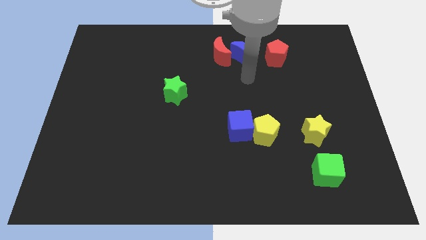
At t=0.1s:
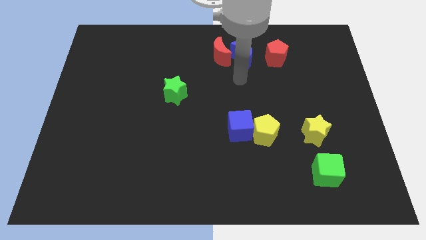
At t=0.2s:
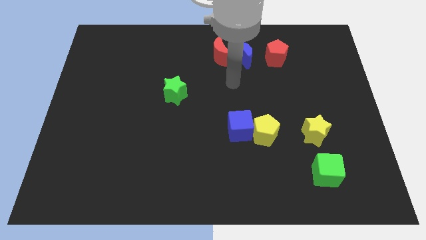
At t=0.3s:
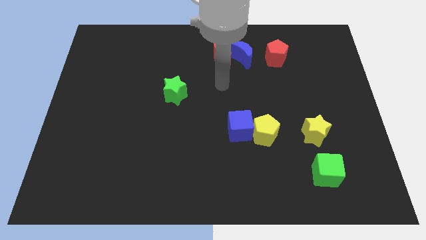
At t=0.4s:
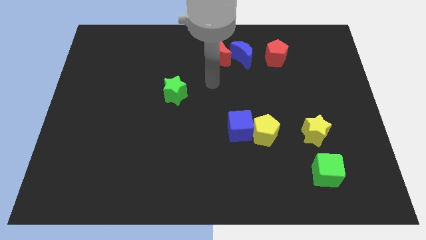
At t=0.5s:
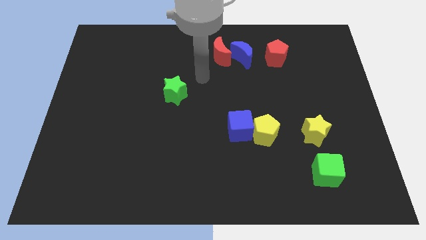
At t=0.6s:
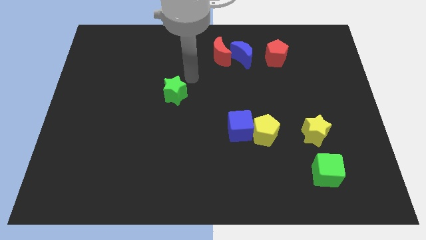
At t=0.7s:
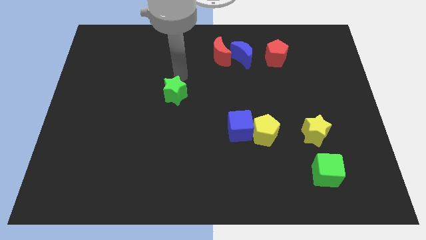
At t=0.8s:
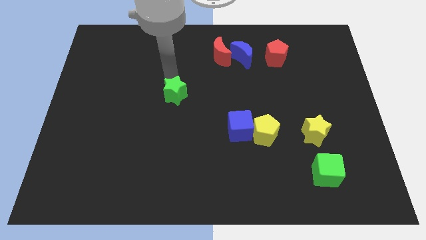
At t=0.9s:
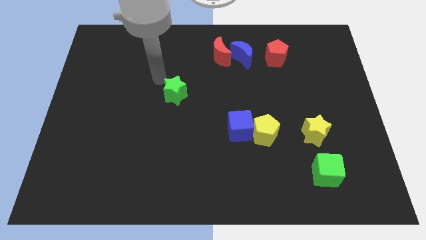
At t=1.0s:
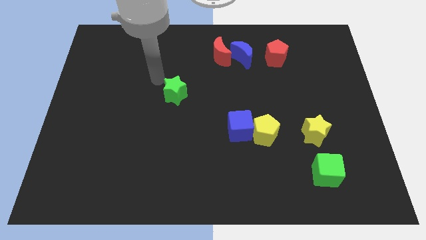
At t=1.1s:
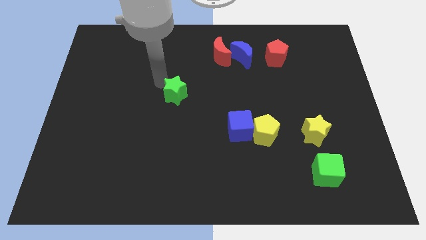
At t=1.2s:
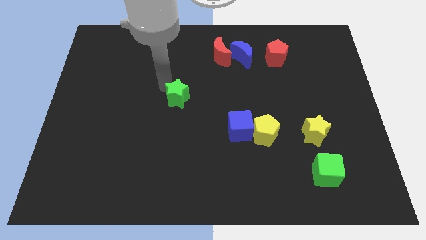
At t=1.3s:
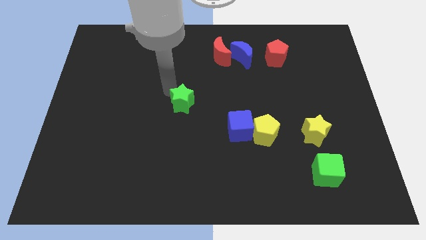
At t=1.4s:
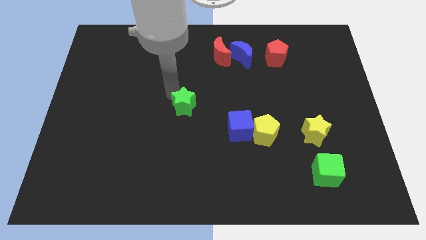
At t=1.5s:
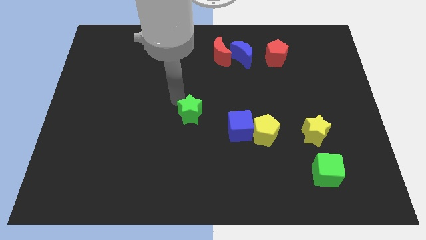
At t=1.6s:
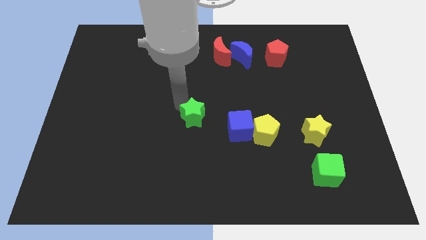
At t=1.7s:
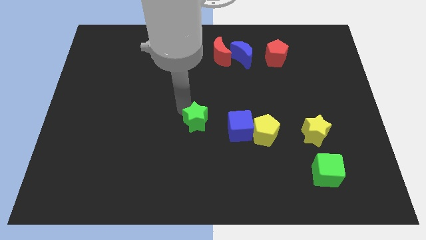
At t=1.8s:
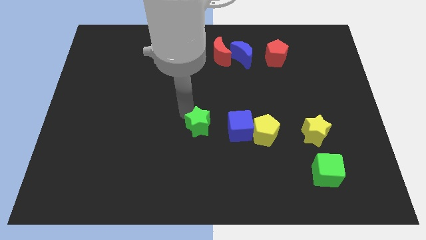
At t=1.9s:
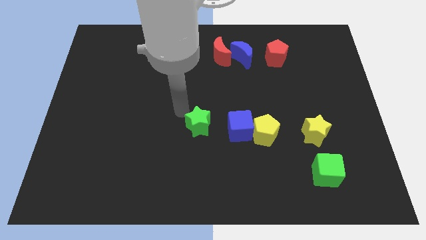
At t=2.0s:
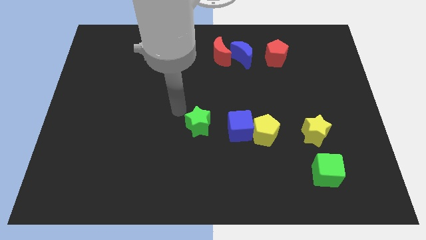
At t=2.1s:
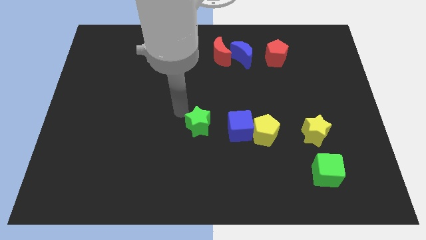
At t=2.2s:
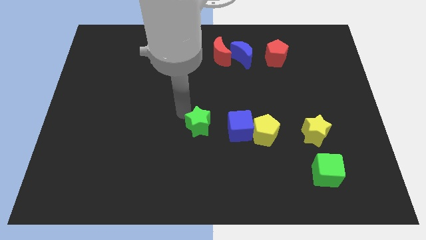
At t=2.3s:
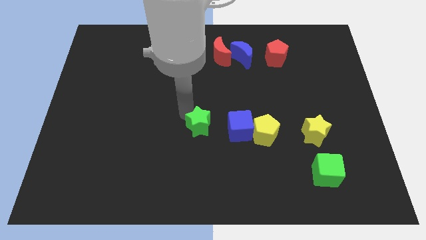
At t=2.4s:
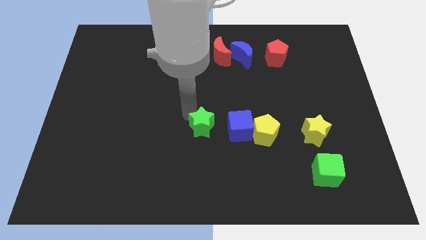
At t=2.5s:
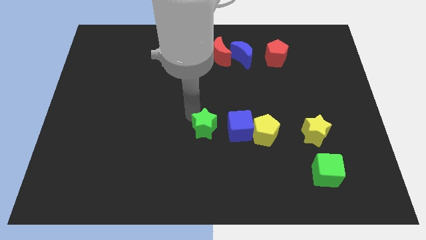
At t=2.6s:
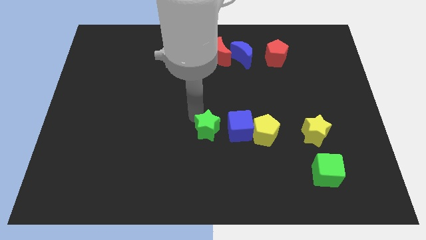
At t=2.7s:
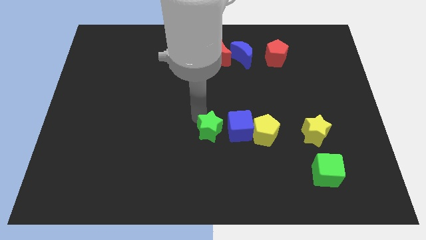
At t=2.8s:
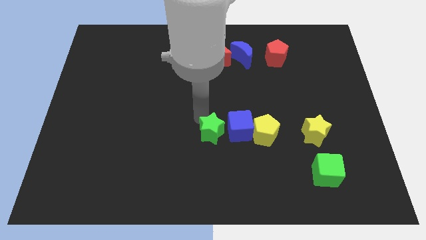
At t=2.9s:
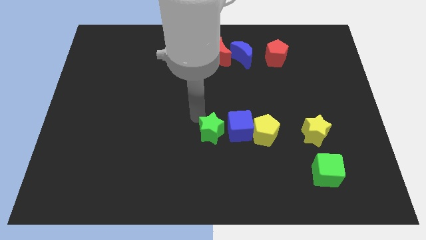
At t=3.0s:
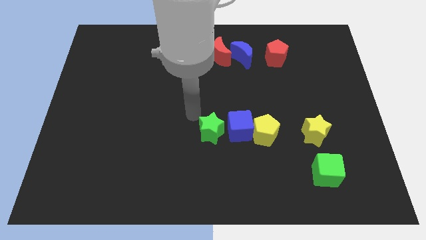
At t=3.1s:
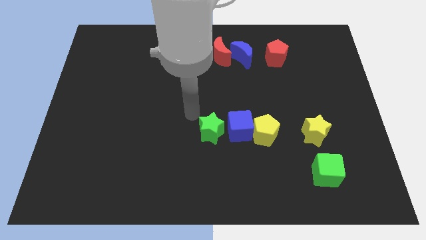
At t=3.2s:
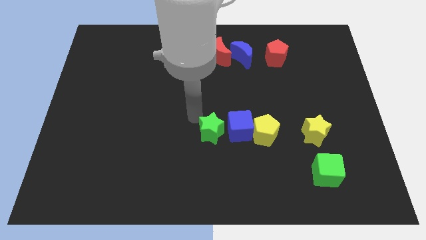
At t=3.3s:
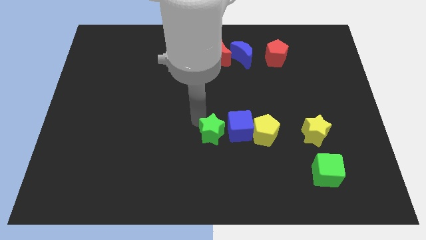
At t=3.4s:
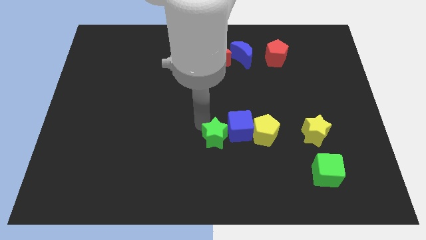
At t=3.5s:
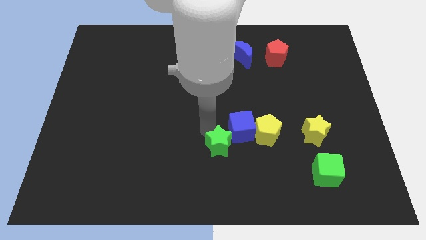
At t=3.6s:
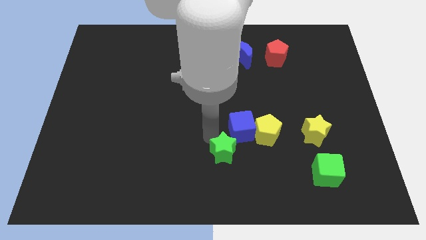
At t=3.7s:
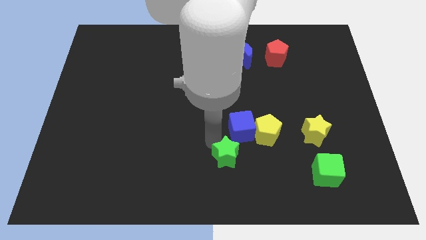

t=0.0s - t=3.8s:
slide the green star downwards and then right

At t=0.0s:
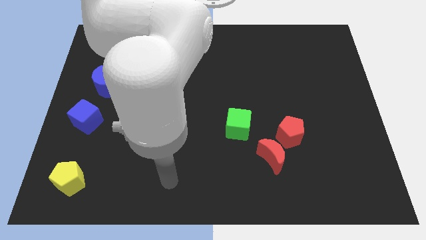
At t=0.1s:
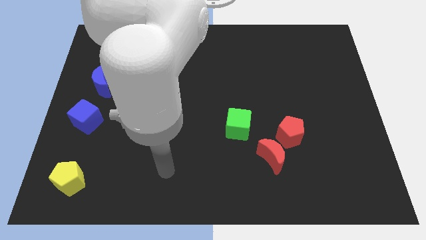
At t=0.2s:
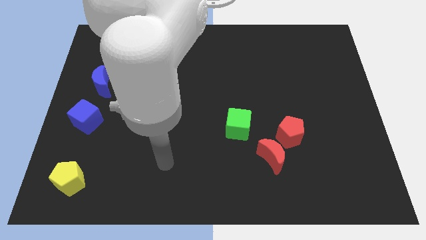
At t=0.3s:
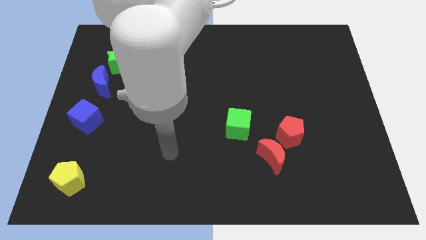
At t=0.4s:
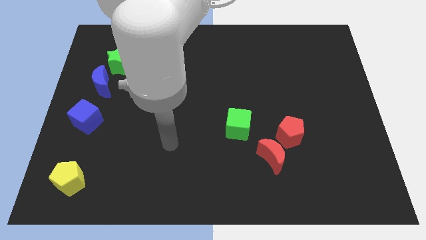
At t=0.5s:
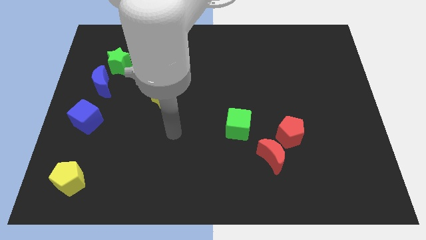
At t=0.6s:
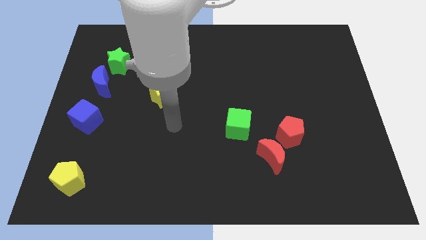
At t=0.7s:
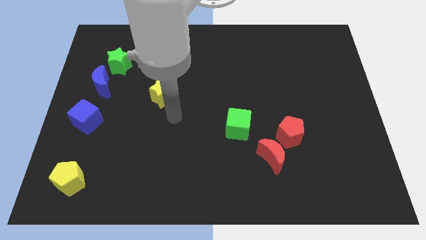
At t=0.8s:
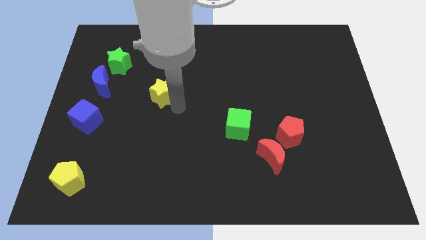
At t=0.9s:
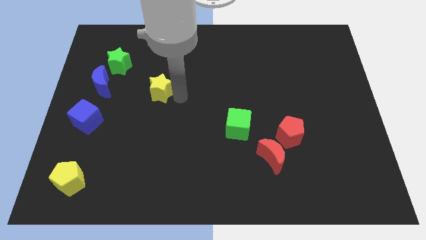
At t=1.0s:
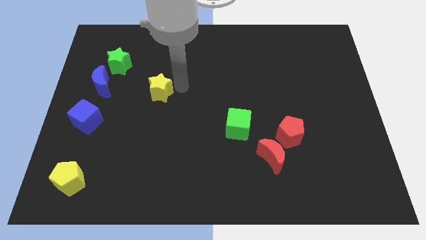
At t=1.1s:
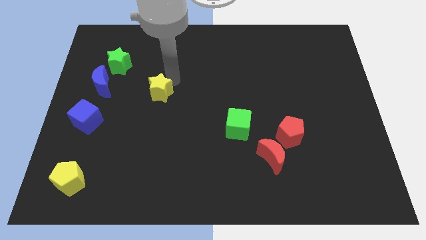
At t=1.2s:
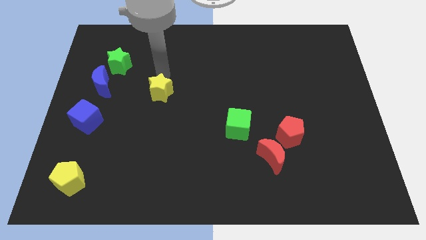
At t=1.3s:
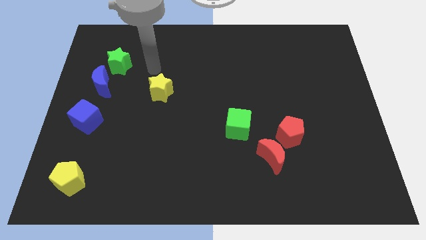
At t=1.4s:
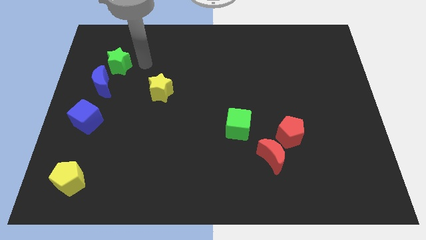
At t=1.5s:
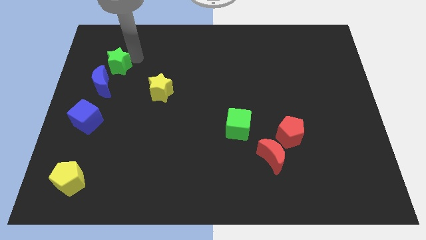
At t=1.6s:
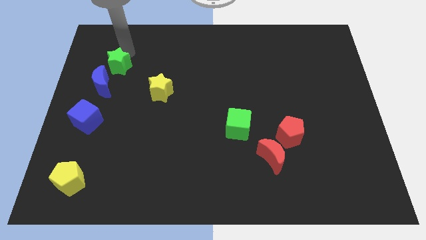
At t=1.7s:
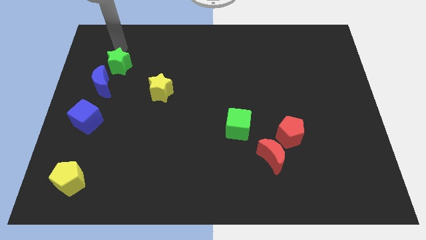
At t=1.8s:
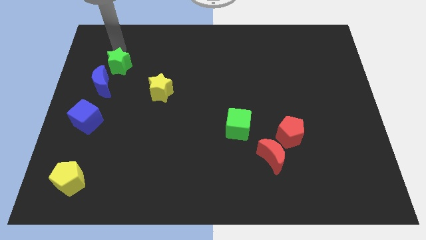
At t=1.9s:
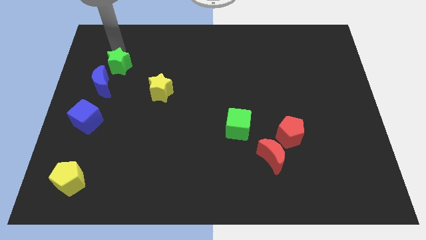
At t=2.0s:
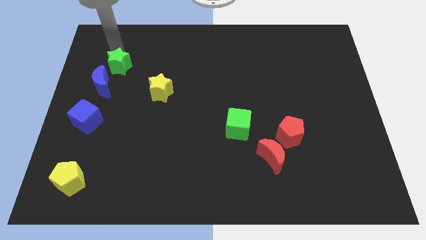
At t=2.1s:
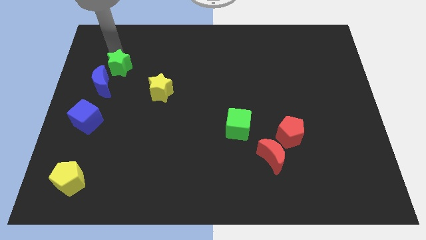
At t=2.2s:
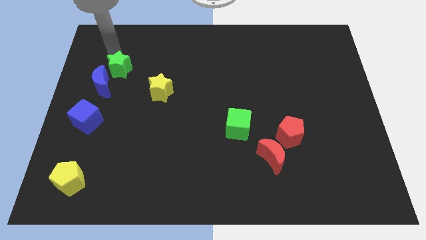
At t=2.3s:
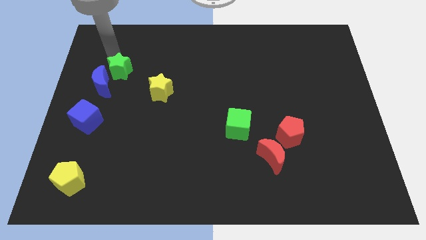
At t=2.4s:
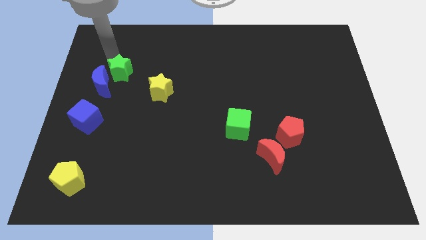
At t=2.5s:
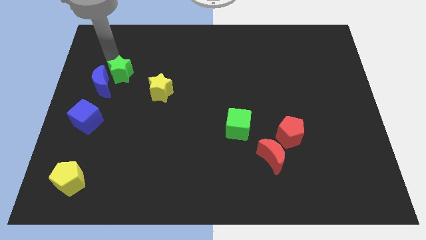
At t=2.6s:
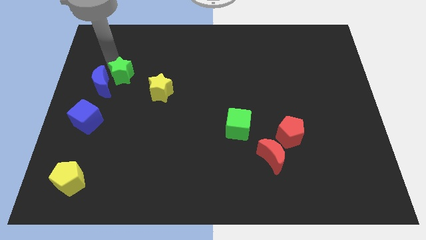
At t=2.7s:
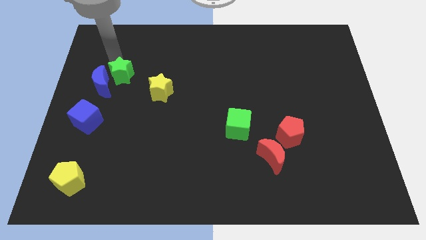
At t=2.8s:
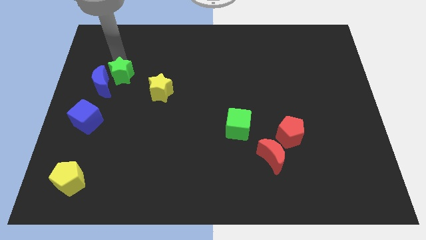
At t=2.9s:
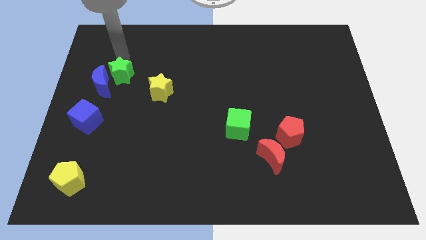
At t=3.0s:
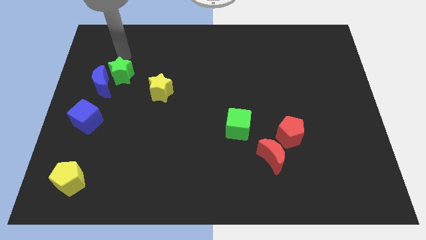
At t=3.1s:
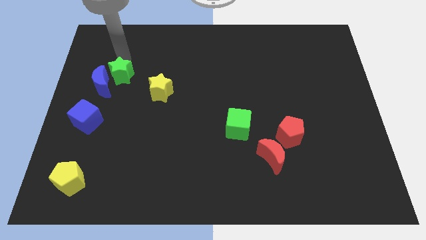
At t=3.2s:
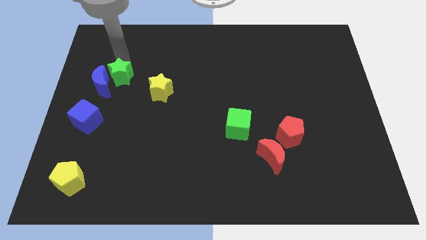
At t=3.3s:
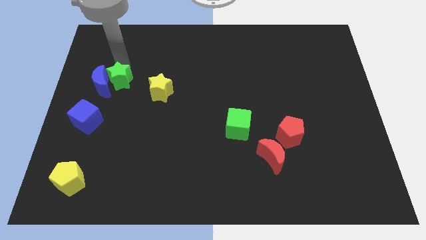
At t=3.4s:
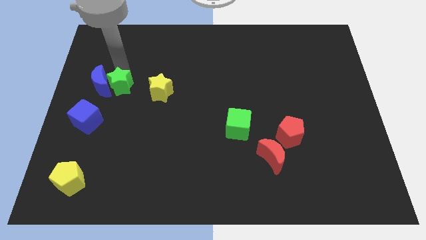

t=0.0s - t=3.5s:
slide the green star downwards somewhat

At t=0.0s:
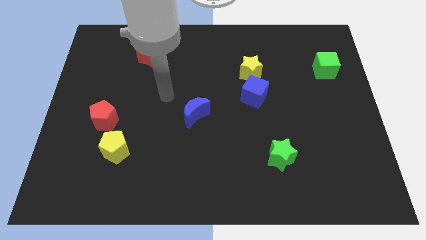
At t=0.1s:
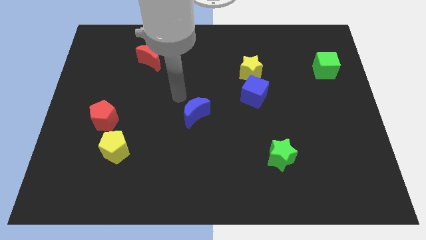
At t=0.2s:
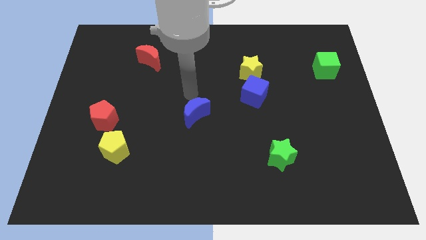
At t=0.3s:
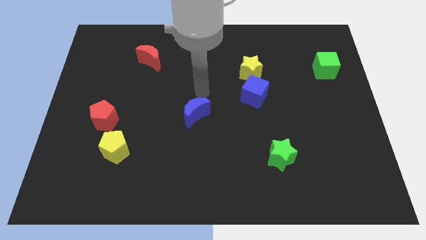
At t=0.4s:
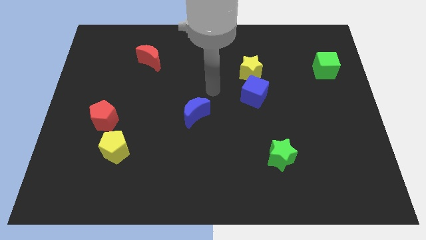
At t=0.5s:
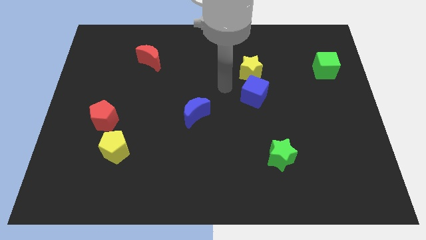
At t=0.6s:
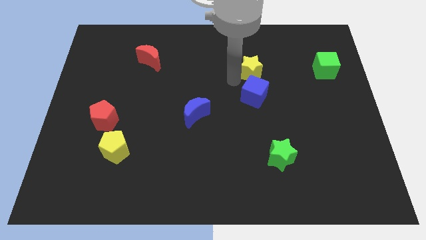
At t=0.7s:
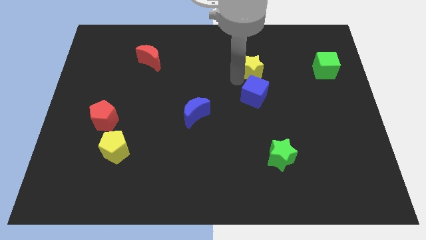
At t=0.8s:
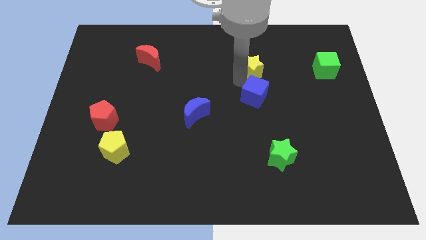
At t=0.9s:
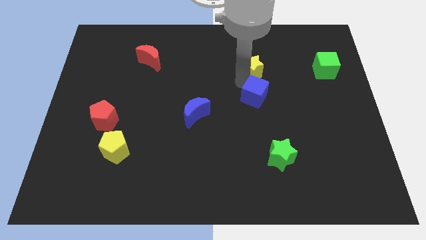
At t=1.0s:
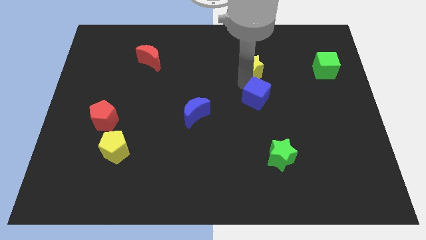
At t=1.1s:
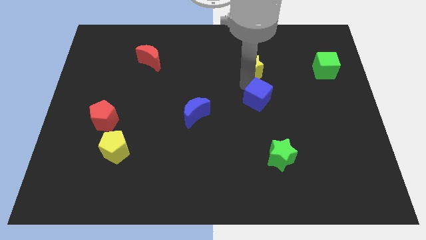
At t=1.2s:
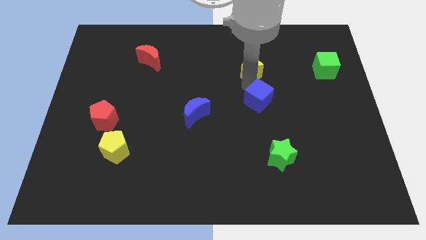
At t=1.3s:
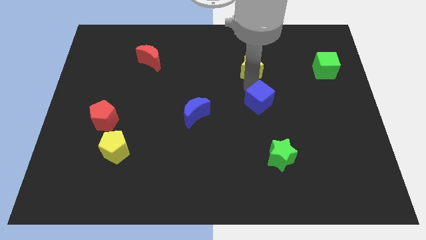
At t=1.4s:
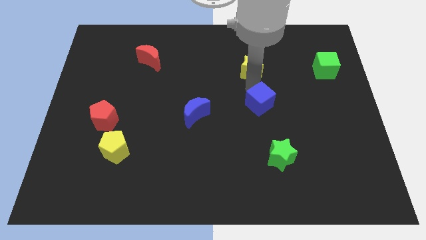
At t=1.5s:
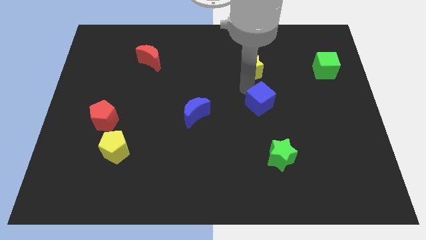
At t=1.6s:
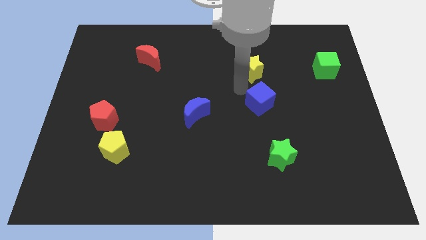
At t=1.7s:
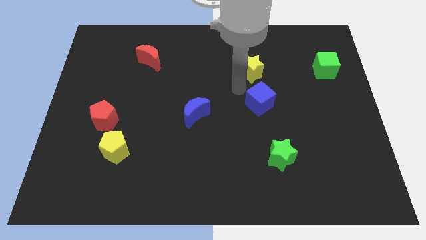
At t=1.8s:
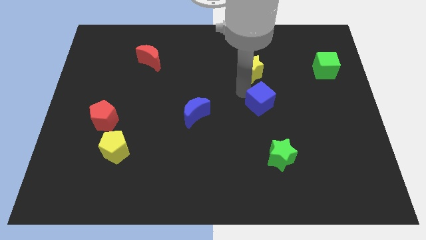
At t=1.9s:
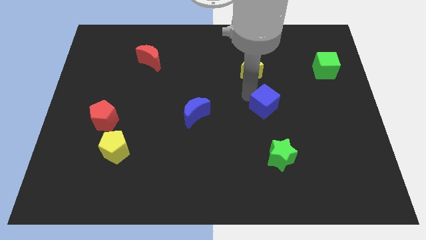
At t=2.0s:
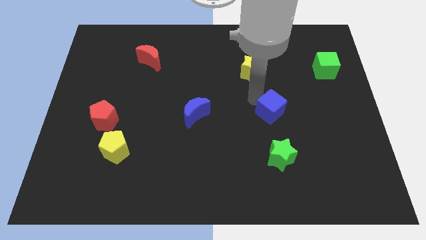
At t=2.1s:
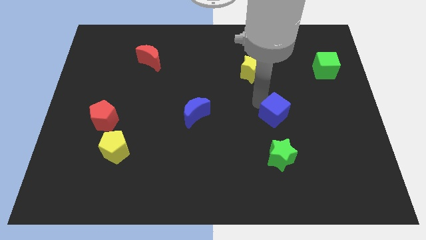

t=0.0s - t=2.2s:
push the blue cube downwards and right diagonally a little bit
